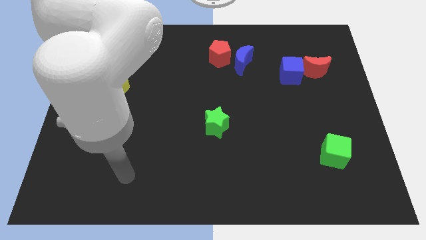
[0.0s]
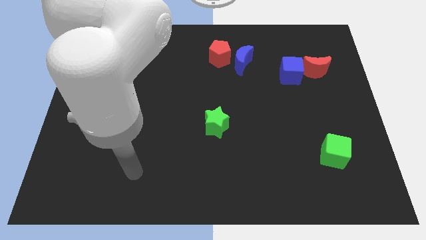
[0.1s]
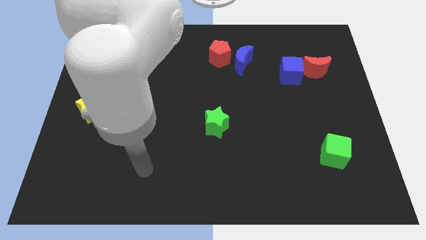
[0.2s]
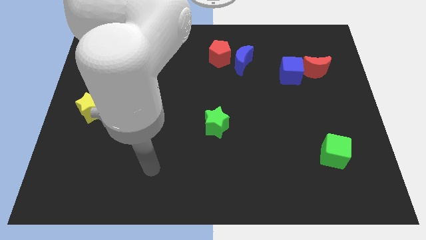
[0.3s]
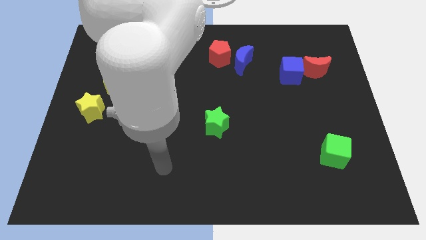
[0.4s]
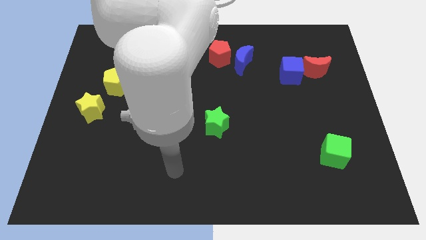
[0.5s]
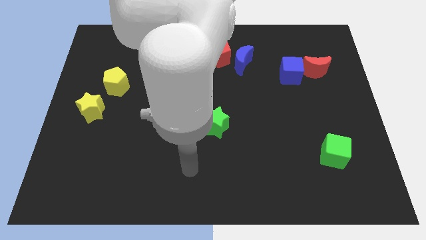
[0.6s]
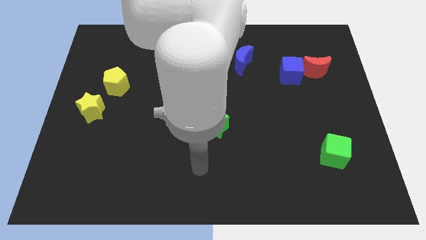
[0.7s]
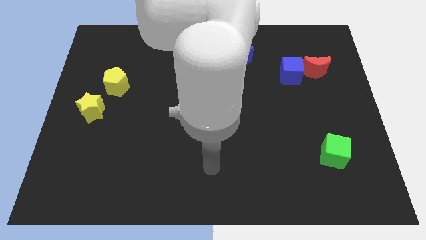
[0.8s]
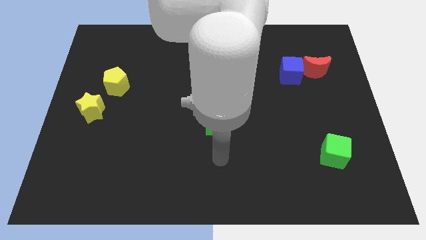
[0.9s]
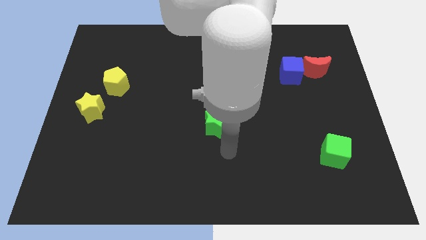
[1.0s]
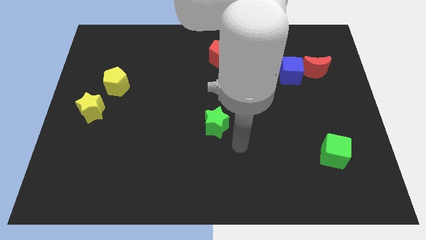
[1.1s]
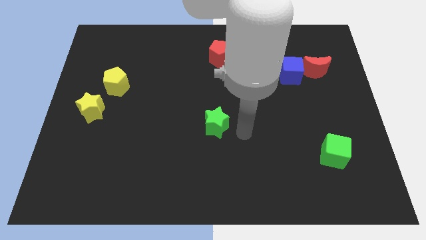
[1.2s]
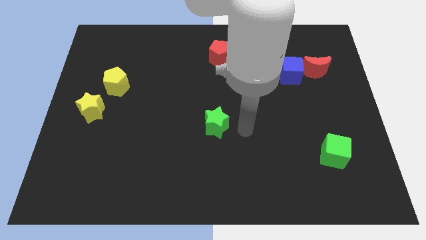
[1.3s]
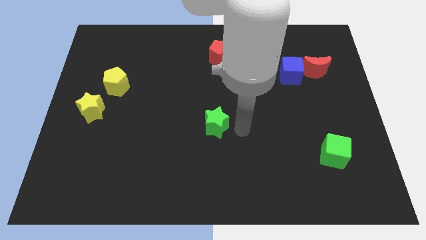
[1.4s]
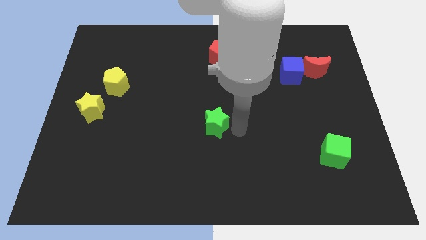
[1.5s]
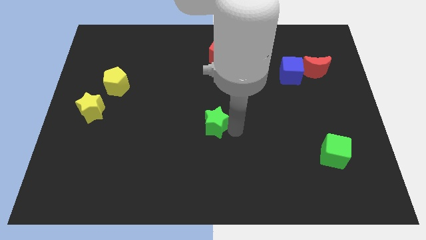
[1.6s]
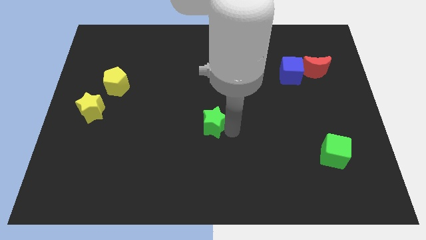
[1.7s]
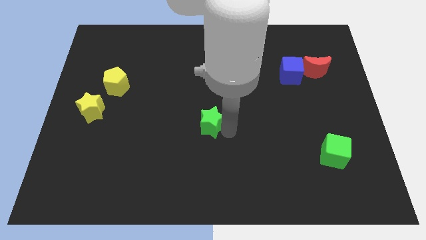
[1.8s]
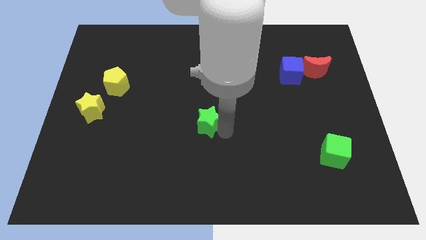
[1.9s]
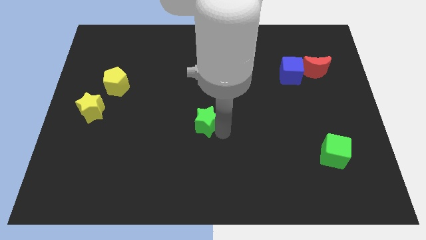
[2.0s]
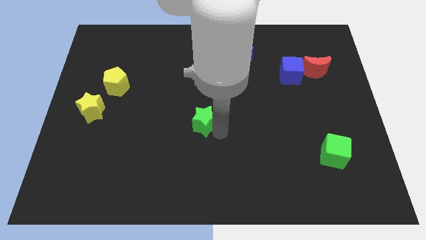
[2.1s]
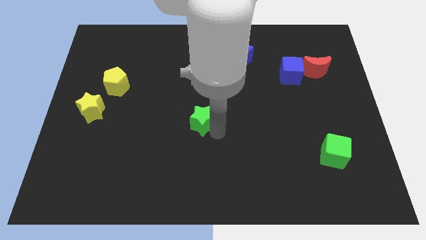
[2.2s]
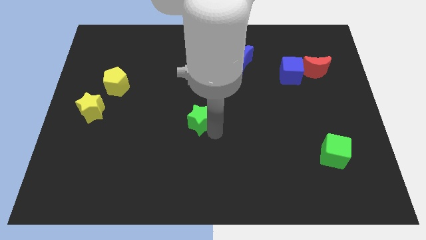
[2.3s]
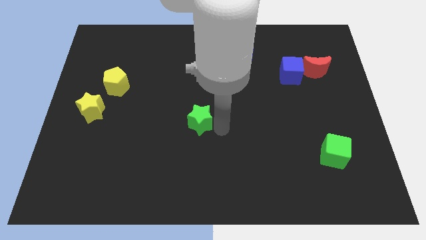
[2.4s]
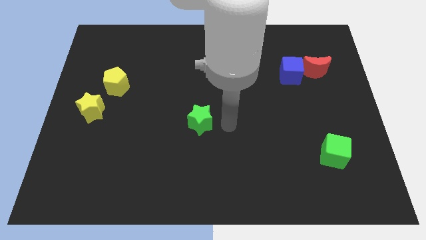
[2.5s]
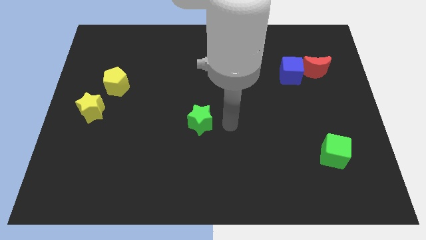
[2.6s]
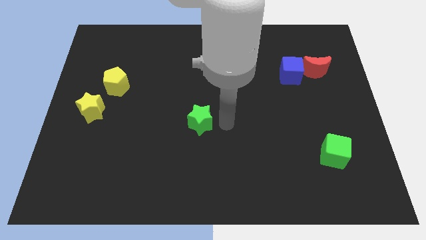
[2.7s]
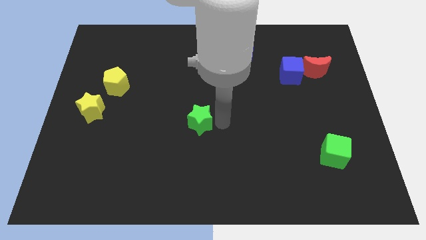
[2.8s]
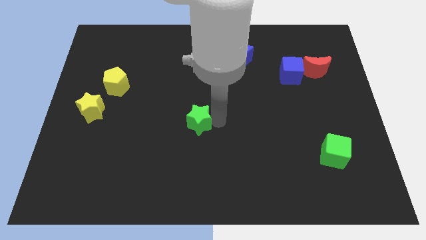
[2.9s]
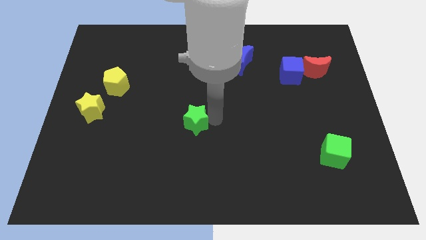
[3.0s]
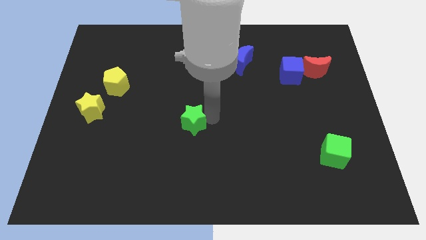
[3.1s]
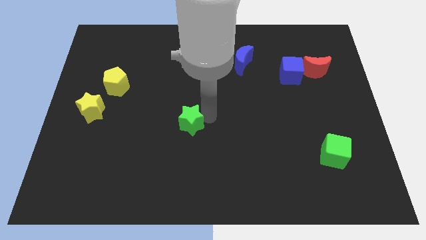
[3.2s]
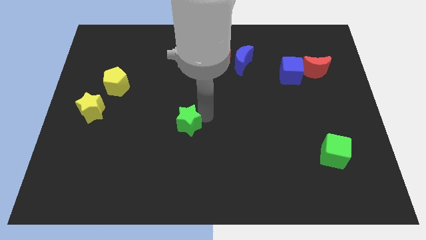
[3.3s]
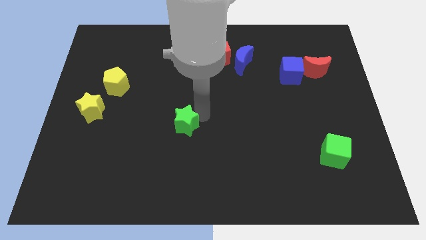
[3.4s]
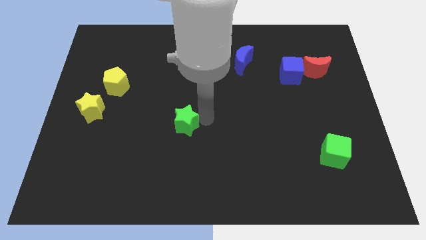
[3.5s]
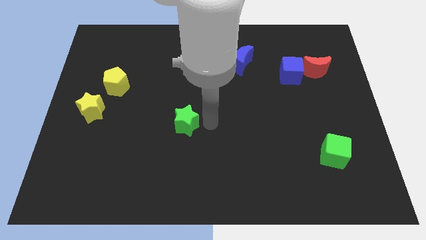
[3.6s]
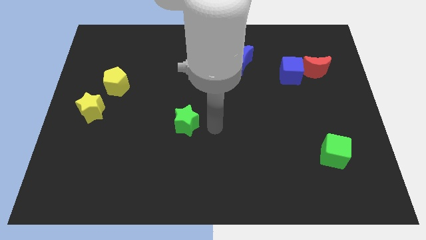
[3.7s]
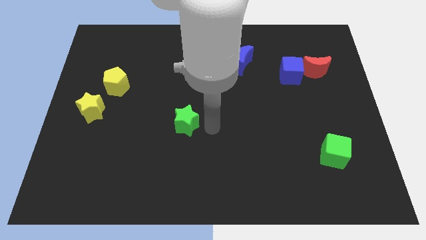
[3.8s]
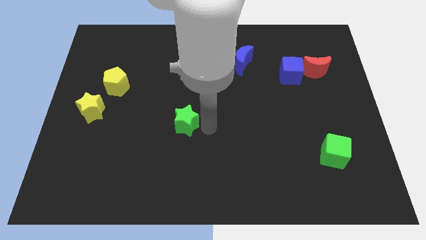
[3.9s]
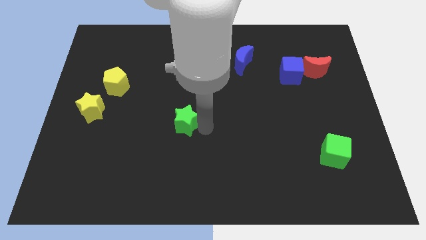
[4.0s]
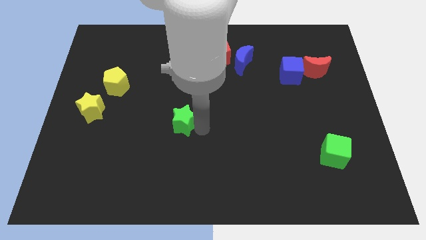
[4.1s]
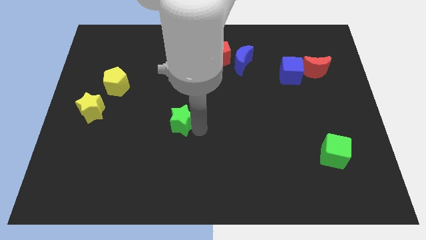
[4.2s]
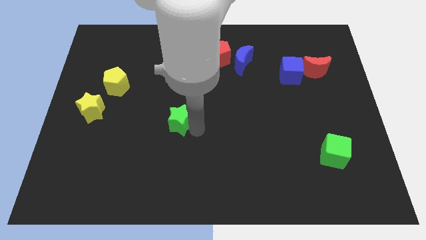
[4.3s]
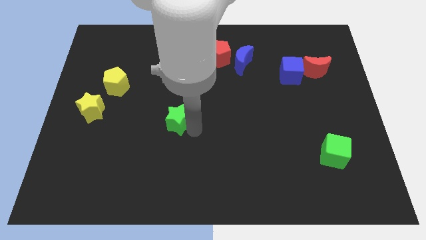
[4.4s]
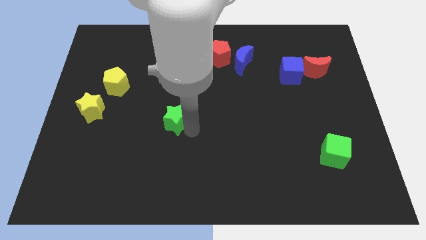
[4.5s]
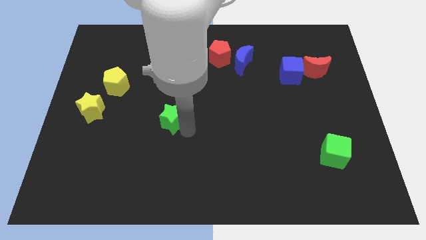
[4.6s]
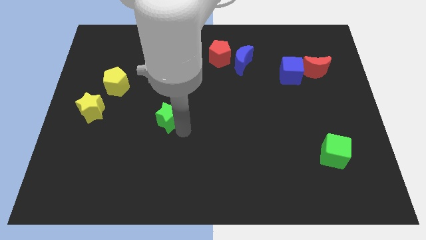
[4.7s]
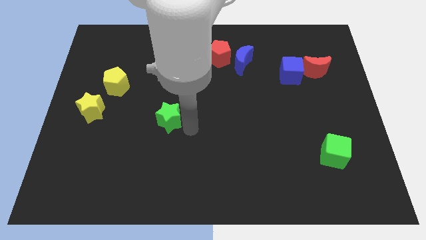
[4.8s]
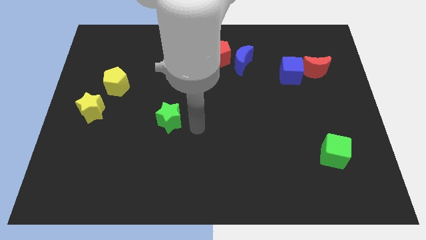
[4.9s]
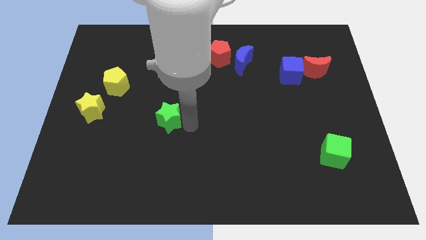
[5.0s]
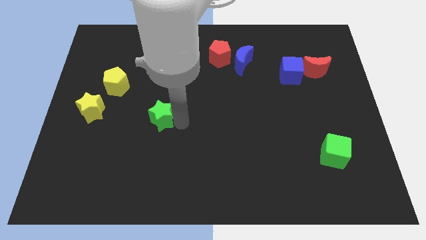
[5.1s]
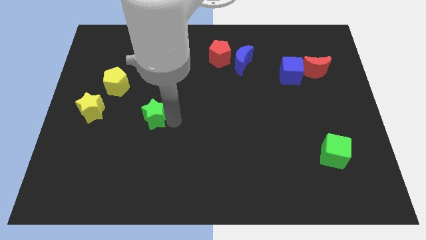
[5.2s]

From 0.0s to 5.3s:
put the green star right of the yellow star

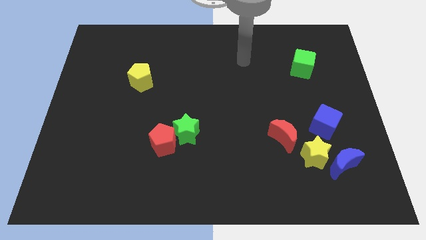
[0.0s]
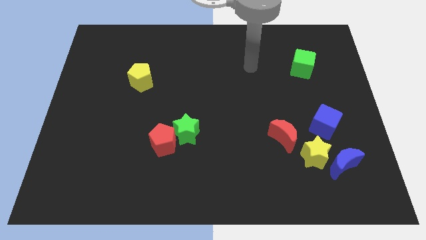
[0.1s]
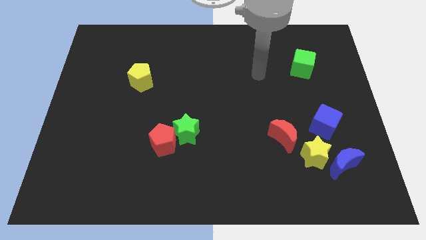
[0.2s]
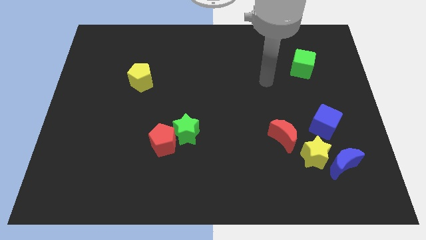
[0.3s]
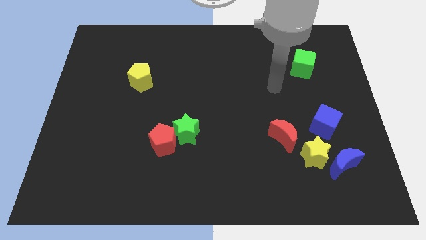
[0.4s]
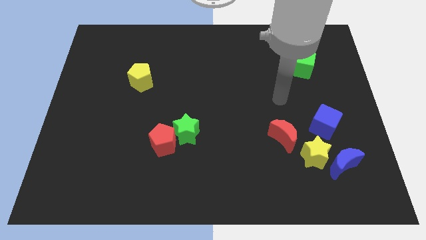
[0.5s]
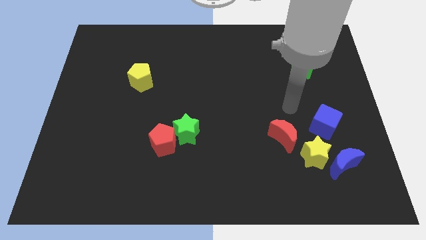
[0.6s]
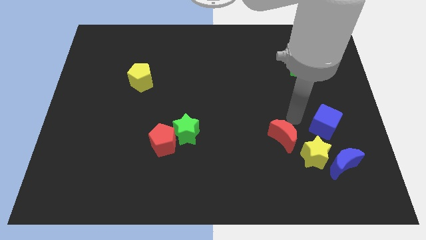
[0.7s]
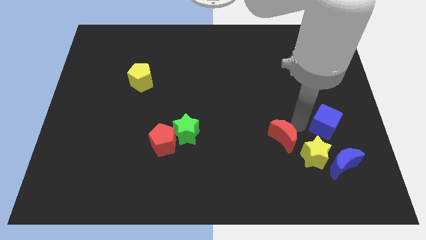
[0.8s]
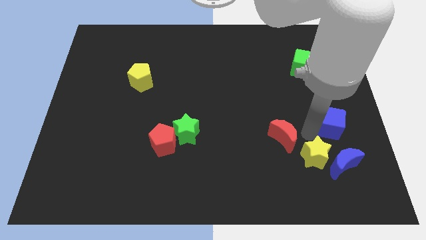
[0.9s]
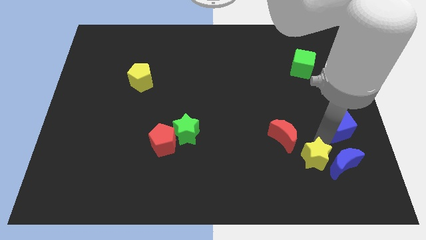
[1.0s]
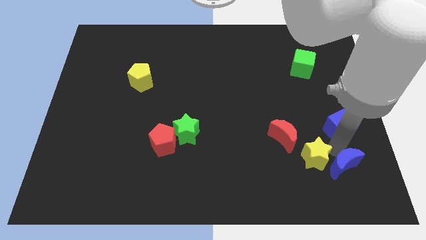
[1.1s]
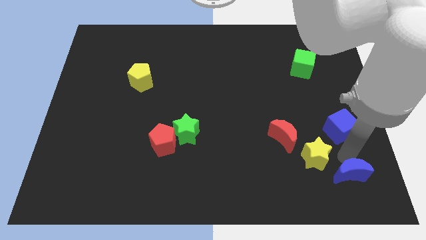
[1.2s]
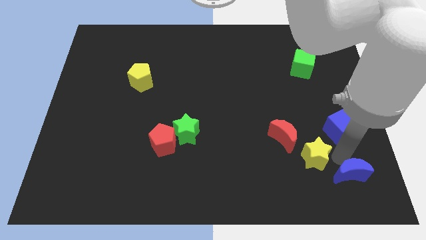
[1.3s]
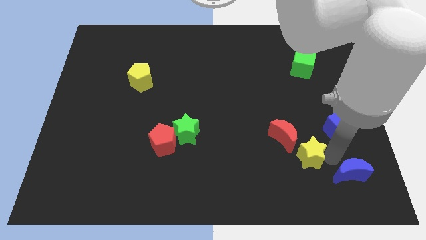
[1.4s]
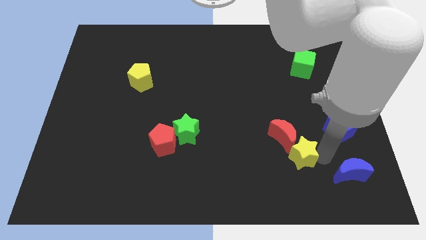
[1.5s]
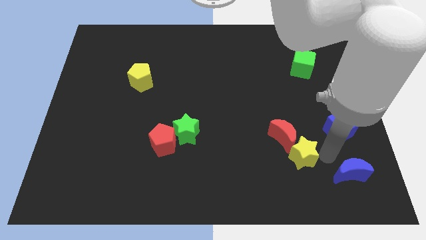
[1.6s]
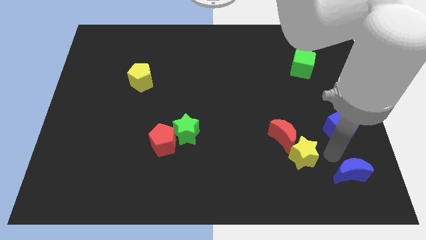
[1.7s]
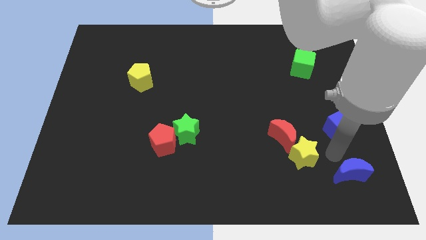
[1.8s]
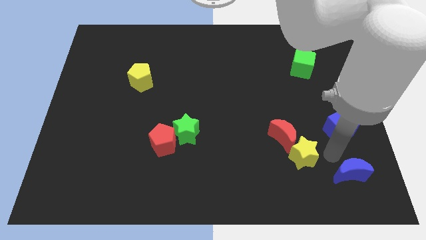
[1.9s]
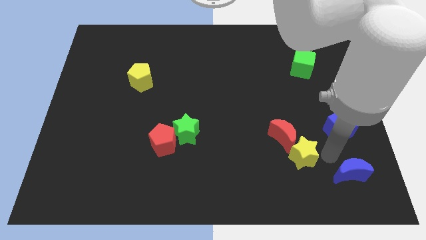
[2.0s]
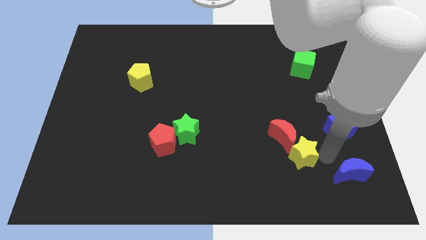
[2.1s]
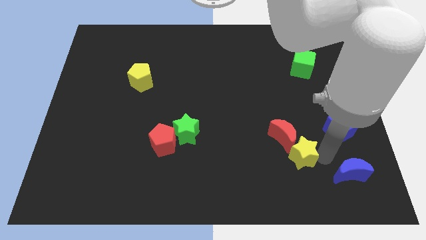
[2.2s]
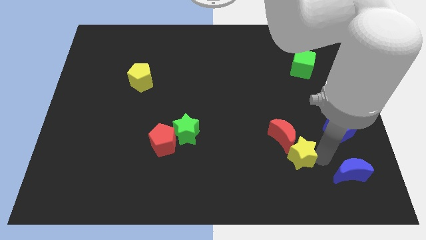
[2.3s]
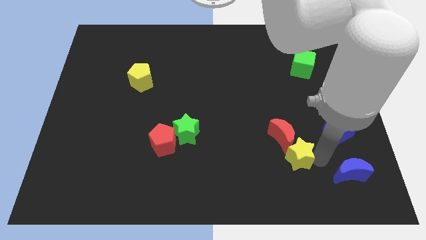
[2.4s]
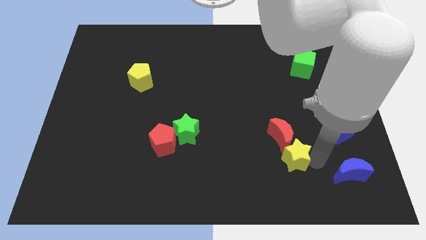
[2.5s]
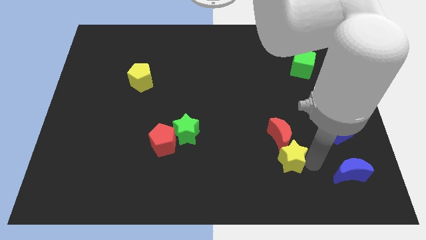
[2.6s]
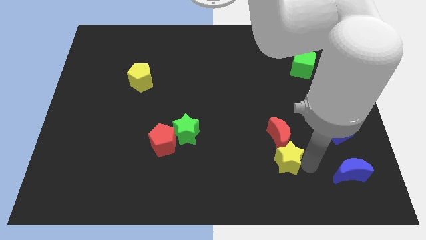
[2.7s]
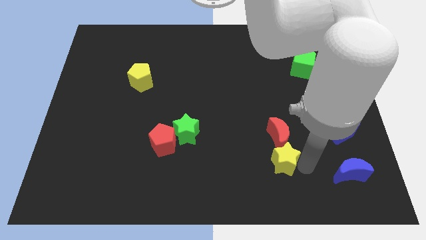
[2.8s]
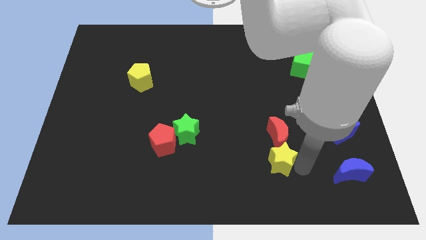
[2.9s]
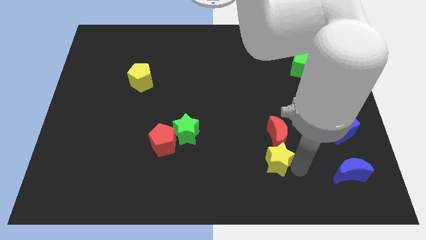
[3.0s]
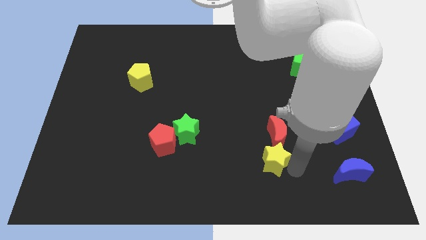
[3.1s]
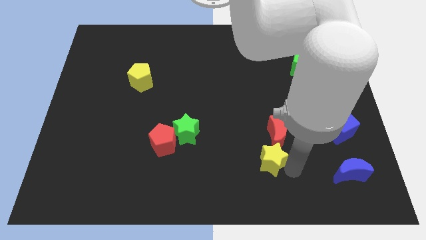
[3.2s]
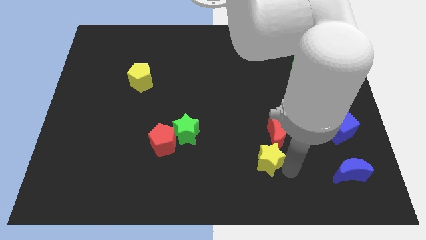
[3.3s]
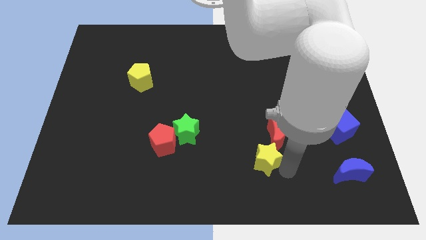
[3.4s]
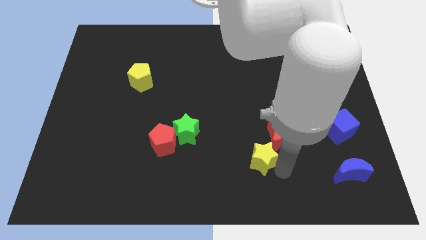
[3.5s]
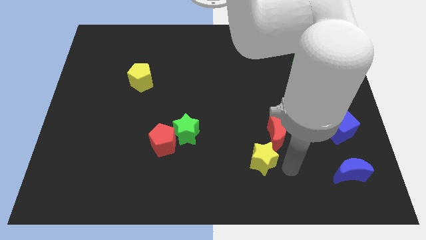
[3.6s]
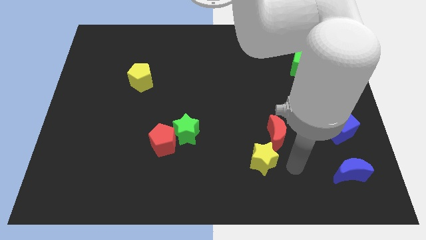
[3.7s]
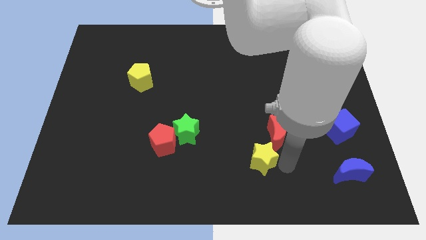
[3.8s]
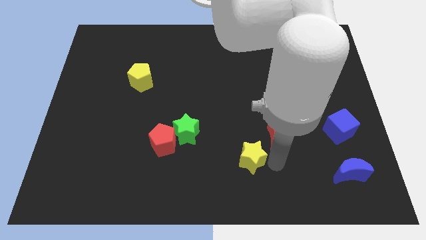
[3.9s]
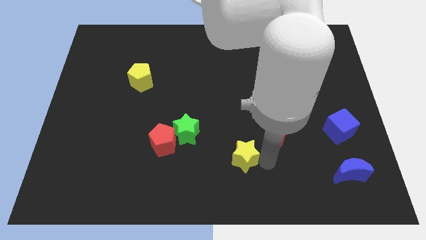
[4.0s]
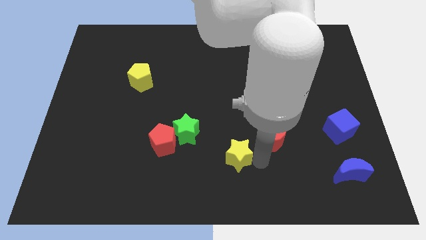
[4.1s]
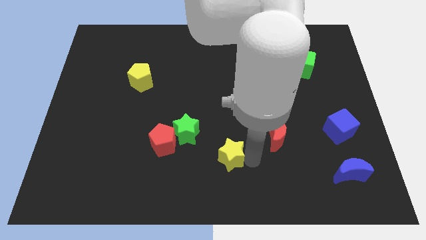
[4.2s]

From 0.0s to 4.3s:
push the yellow star to the bottom right side of the green star
